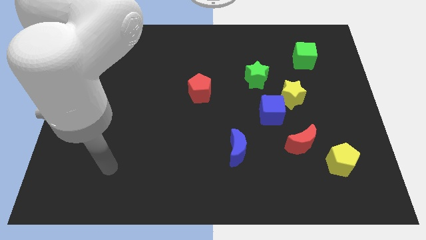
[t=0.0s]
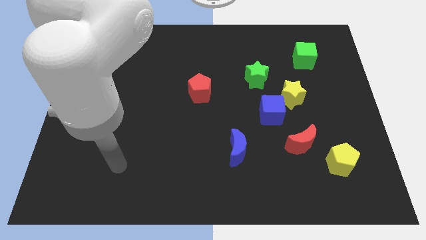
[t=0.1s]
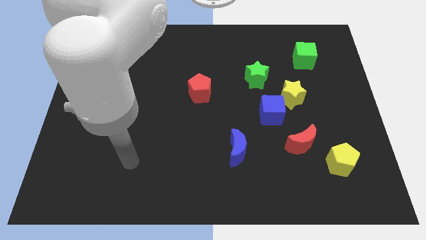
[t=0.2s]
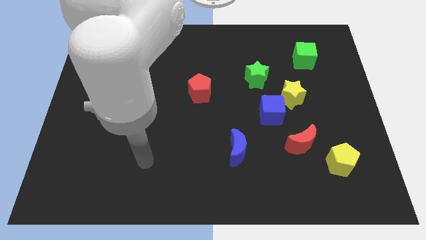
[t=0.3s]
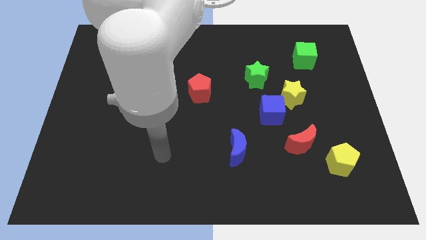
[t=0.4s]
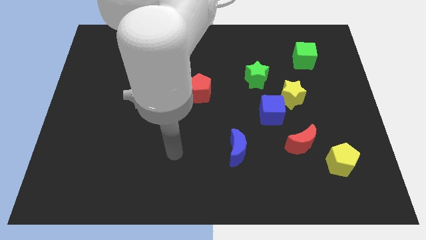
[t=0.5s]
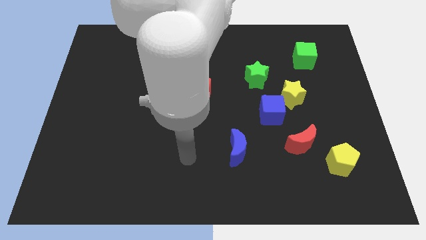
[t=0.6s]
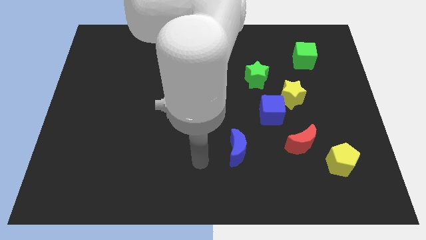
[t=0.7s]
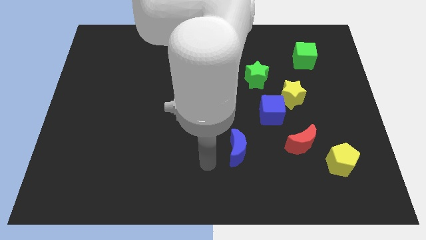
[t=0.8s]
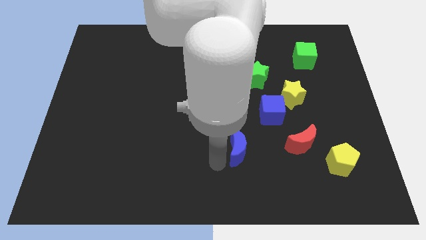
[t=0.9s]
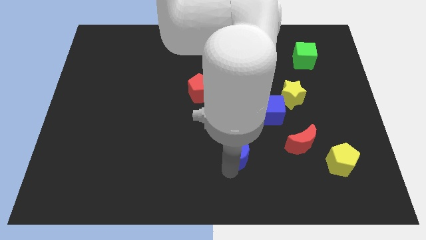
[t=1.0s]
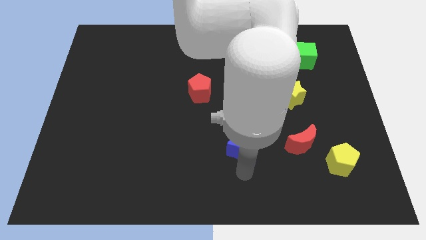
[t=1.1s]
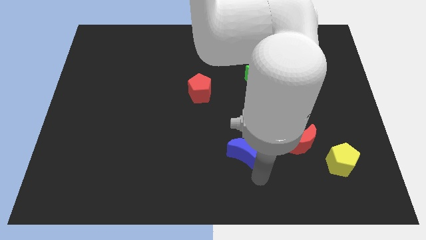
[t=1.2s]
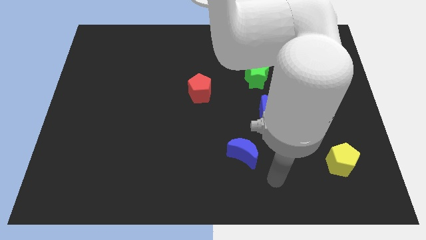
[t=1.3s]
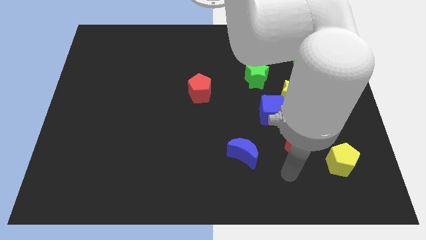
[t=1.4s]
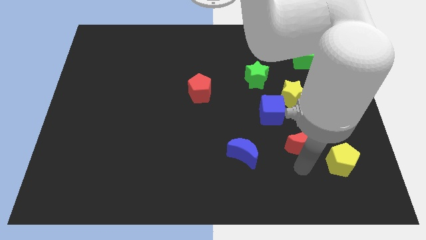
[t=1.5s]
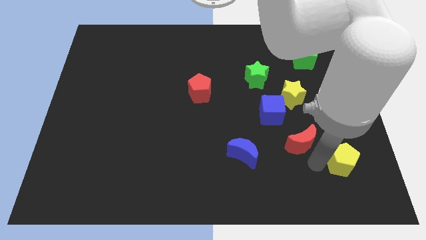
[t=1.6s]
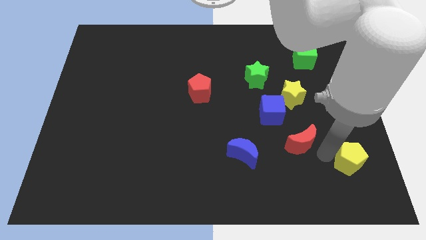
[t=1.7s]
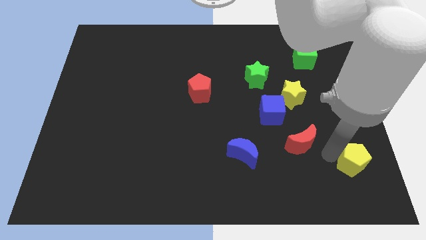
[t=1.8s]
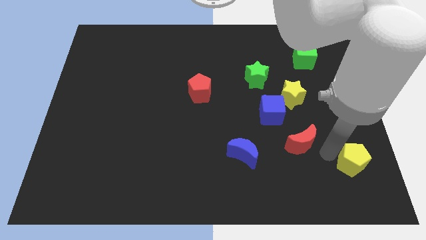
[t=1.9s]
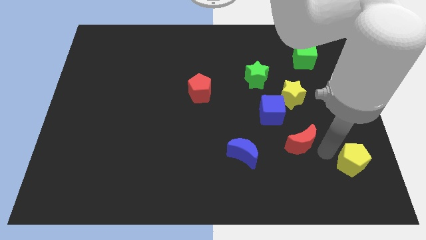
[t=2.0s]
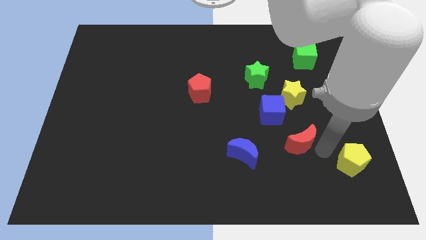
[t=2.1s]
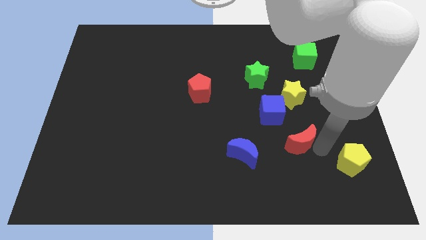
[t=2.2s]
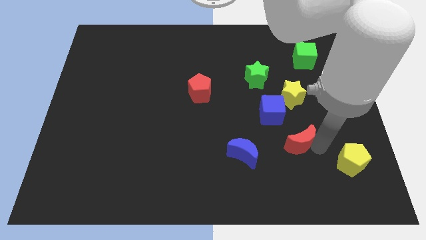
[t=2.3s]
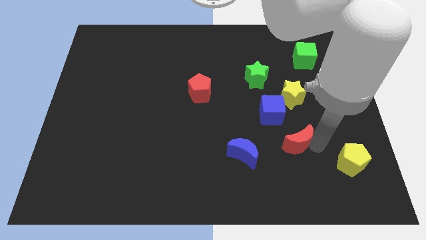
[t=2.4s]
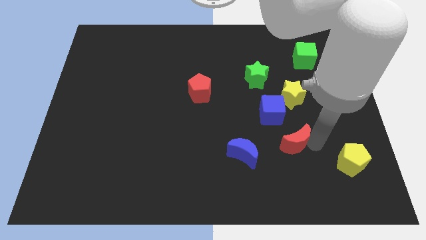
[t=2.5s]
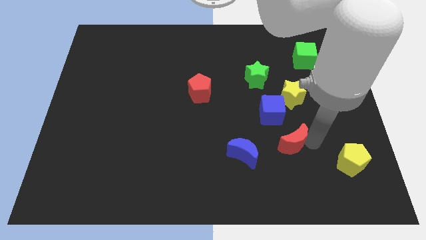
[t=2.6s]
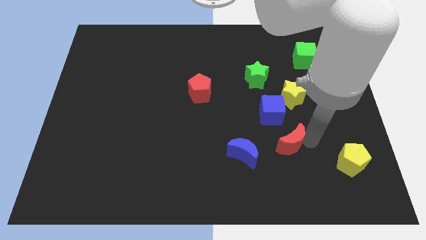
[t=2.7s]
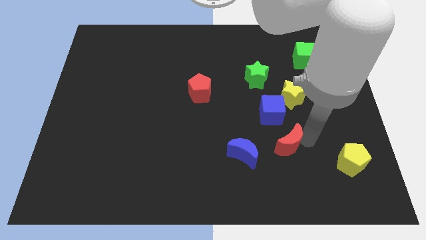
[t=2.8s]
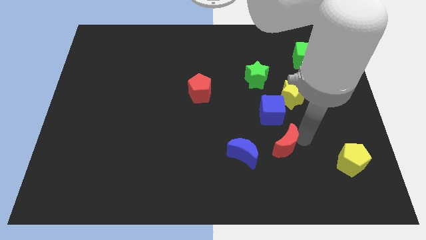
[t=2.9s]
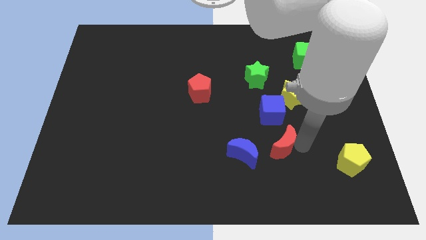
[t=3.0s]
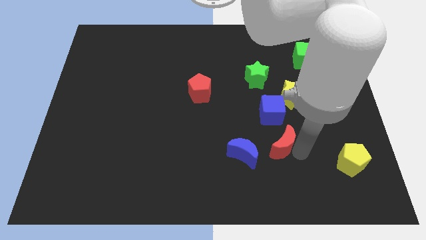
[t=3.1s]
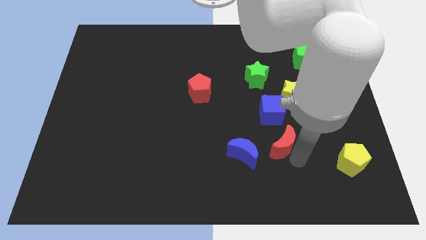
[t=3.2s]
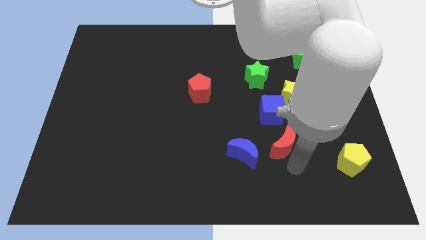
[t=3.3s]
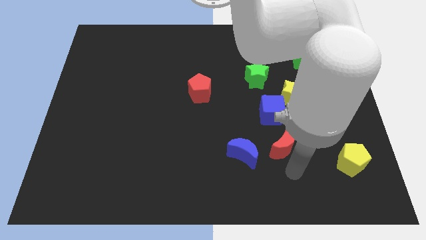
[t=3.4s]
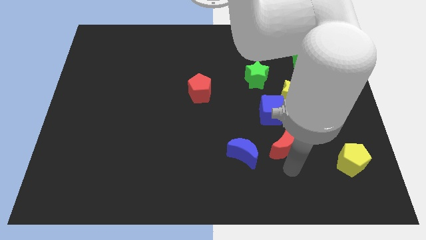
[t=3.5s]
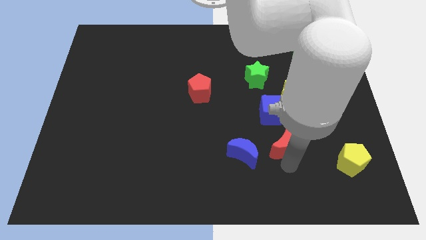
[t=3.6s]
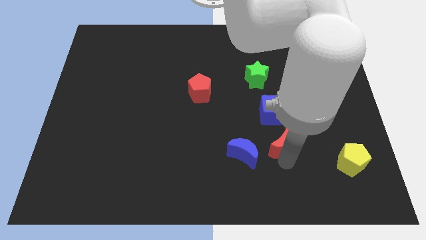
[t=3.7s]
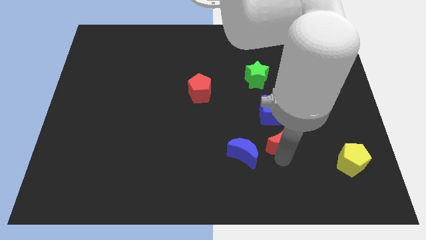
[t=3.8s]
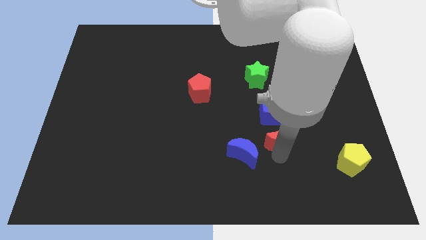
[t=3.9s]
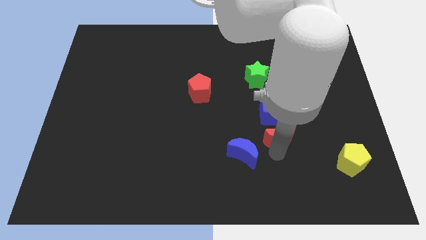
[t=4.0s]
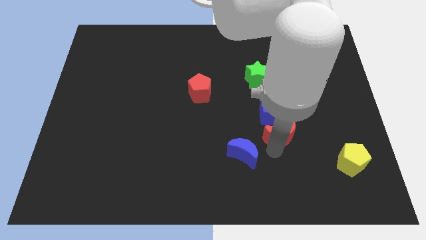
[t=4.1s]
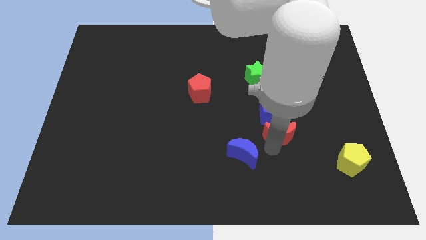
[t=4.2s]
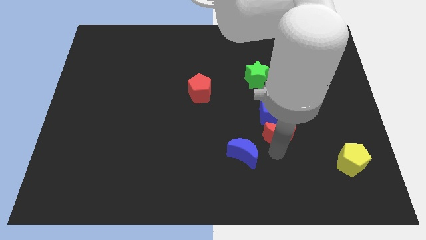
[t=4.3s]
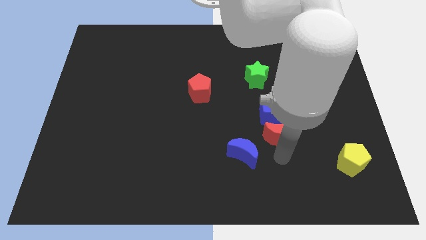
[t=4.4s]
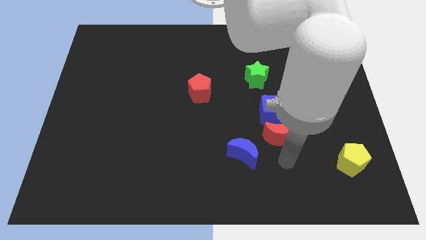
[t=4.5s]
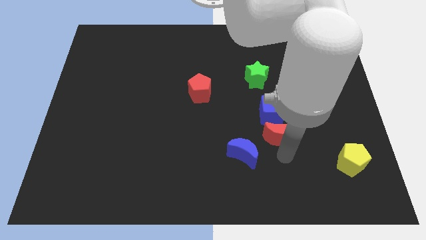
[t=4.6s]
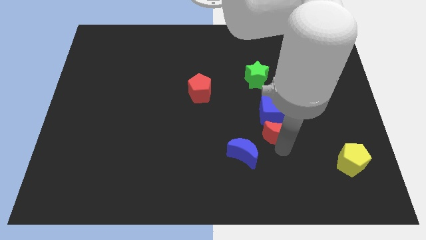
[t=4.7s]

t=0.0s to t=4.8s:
move the red moon next to the blue cube

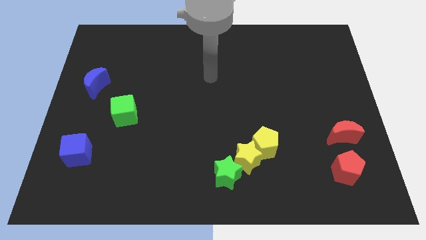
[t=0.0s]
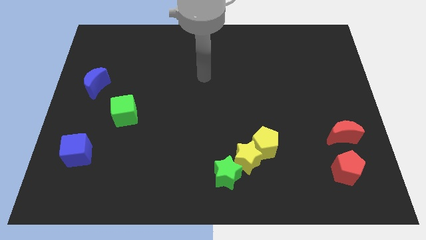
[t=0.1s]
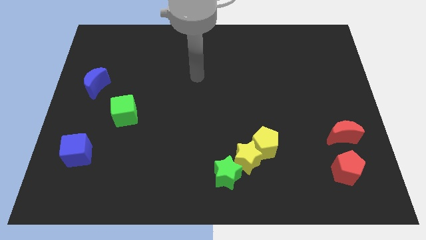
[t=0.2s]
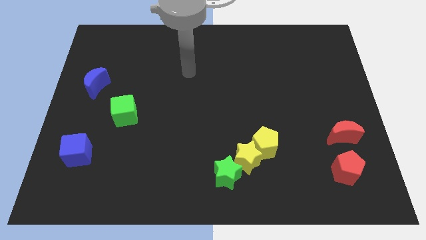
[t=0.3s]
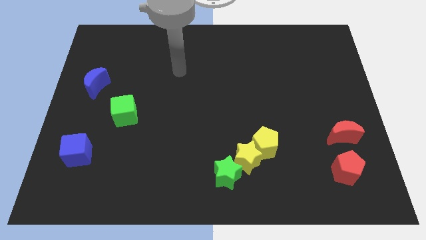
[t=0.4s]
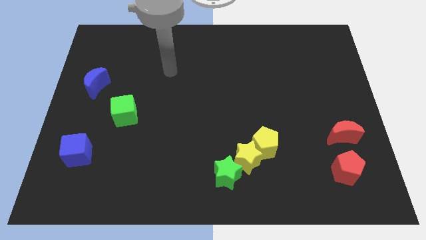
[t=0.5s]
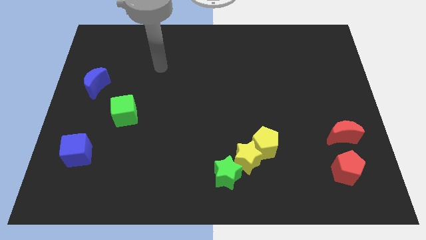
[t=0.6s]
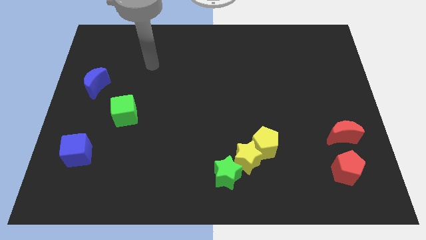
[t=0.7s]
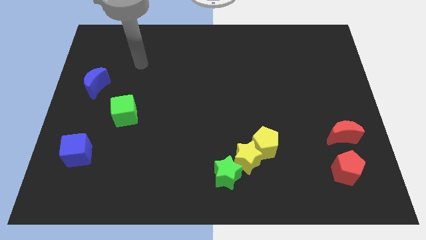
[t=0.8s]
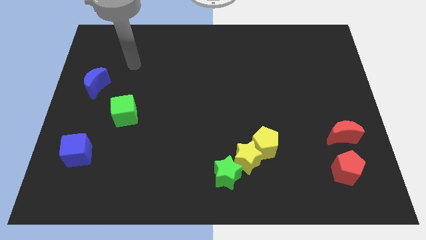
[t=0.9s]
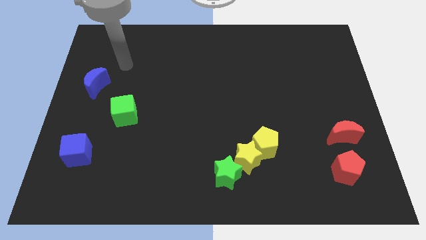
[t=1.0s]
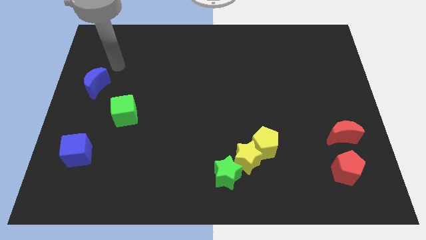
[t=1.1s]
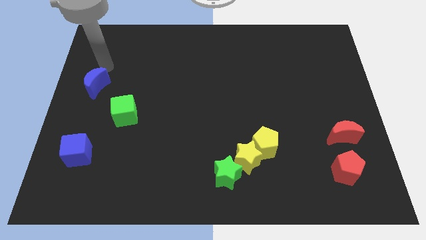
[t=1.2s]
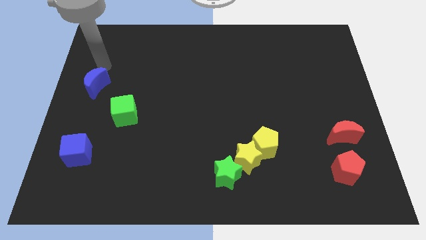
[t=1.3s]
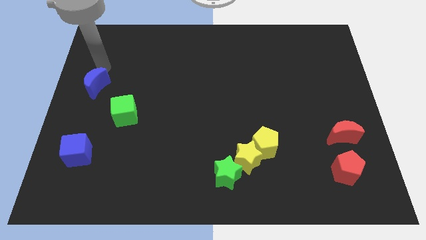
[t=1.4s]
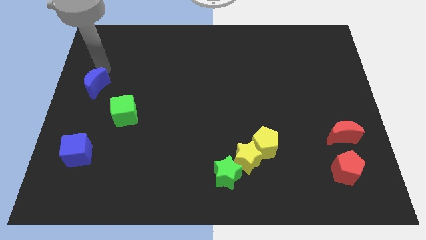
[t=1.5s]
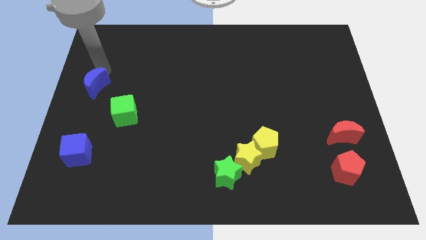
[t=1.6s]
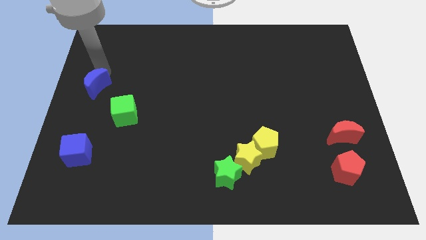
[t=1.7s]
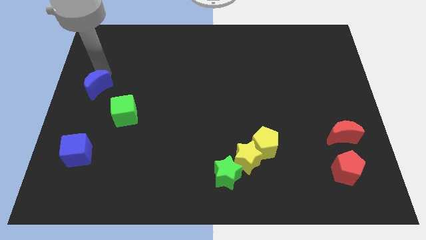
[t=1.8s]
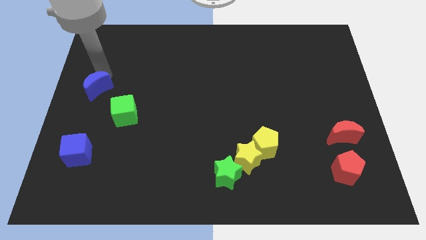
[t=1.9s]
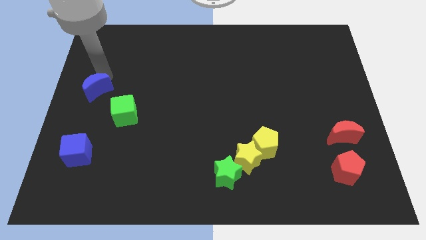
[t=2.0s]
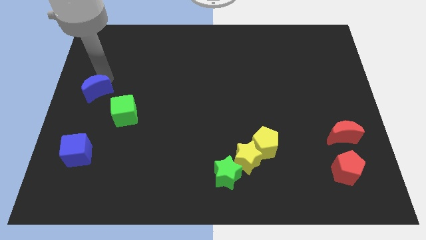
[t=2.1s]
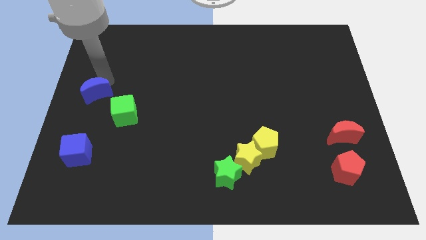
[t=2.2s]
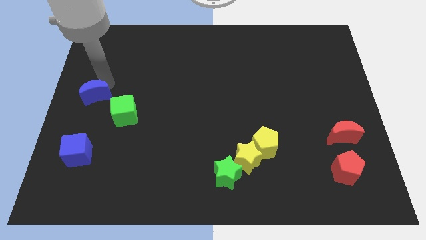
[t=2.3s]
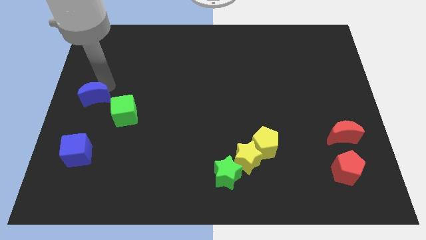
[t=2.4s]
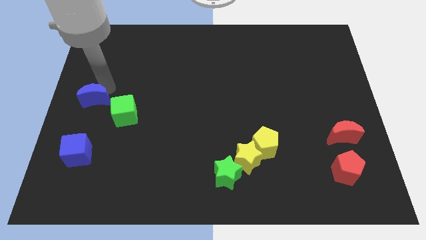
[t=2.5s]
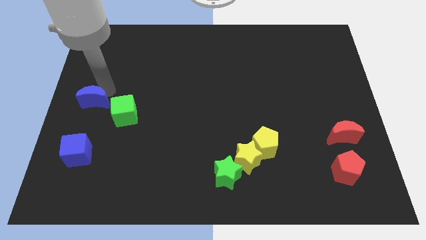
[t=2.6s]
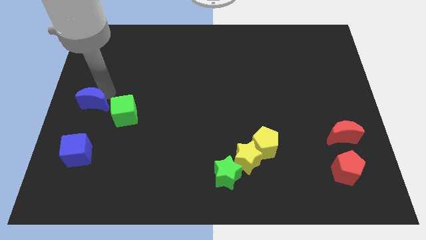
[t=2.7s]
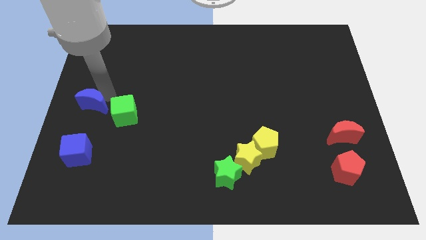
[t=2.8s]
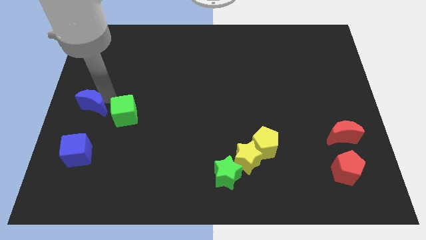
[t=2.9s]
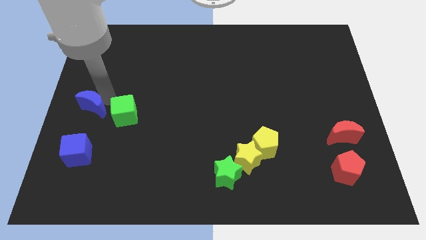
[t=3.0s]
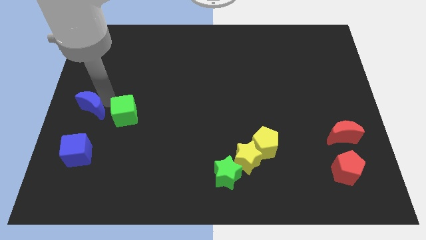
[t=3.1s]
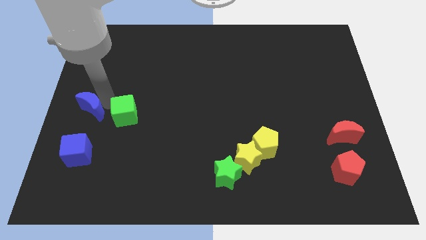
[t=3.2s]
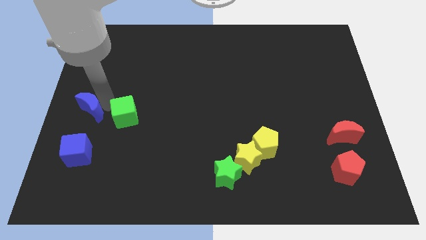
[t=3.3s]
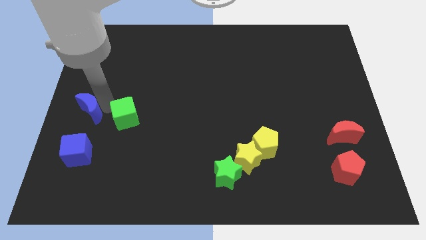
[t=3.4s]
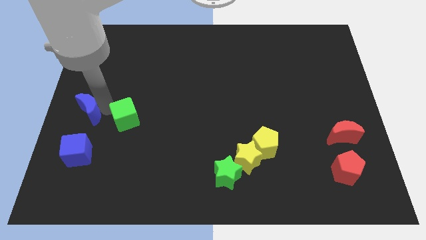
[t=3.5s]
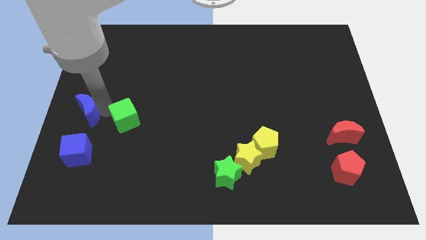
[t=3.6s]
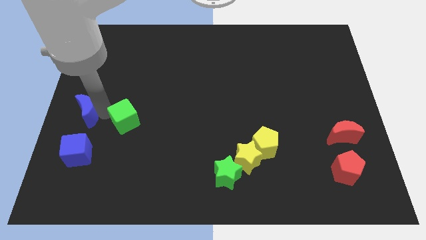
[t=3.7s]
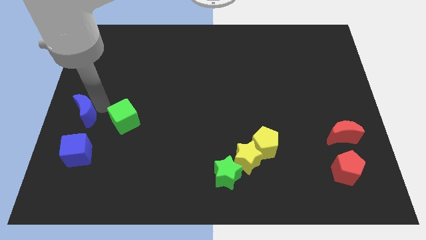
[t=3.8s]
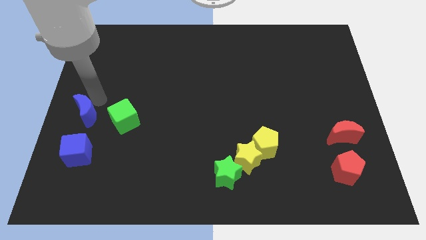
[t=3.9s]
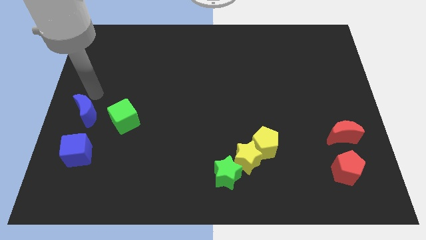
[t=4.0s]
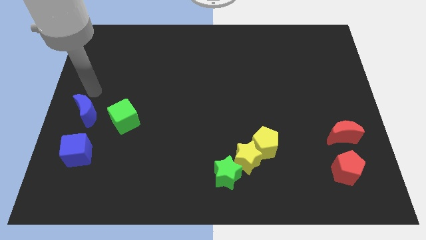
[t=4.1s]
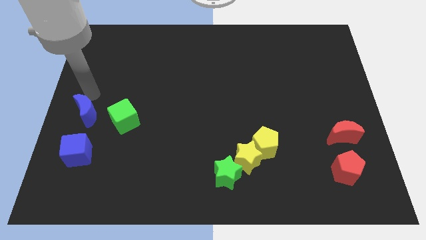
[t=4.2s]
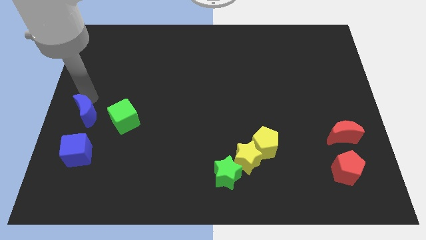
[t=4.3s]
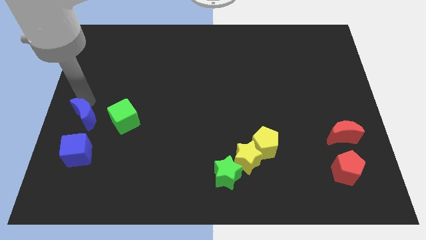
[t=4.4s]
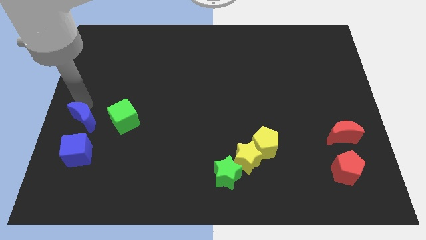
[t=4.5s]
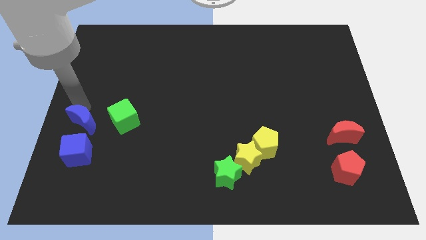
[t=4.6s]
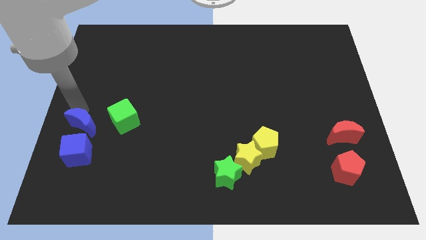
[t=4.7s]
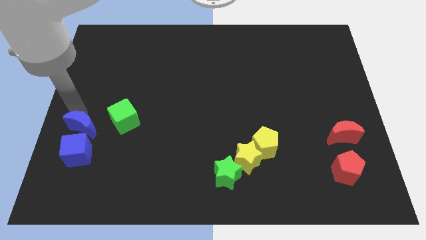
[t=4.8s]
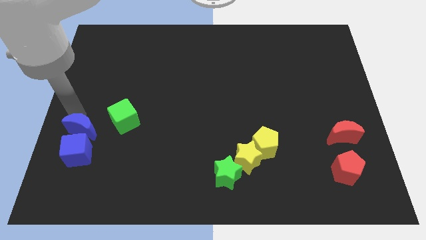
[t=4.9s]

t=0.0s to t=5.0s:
put the blue moon towards the blue cube
